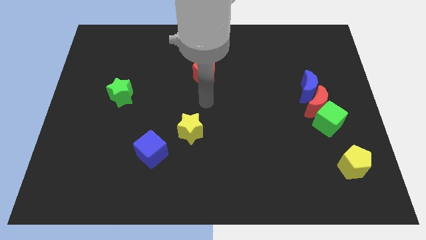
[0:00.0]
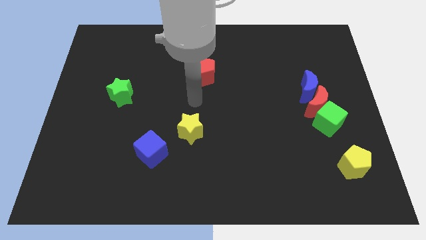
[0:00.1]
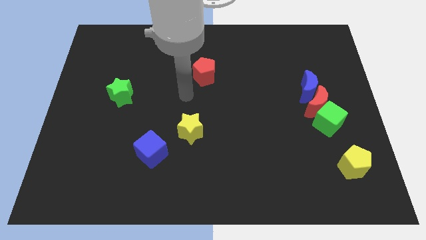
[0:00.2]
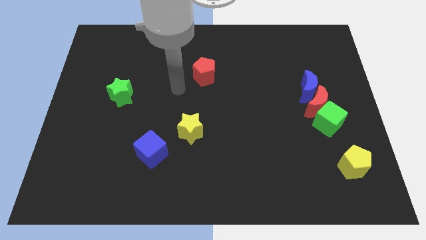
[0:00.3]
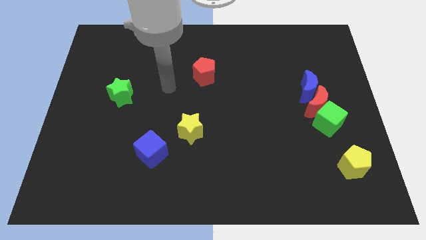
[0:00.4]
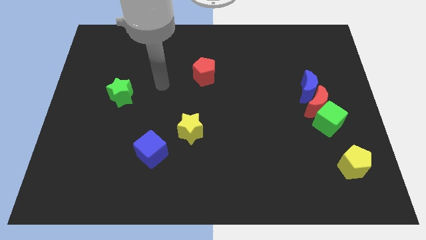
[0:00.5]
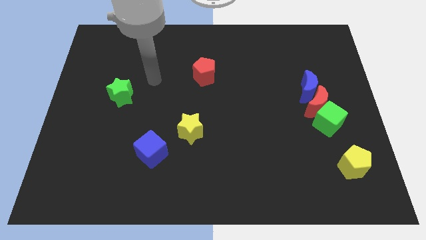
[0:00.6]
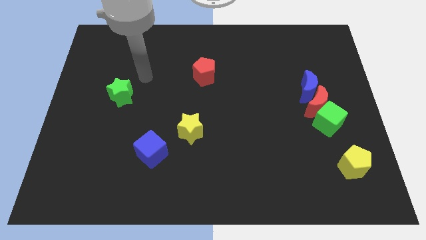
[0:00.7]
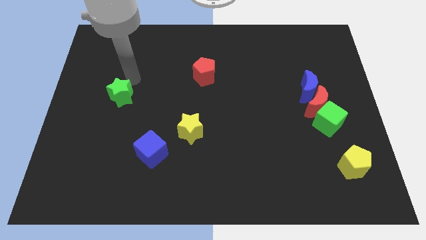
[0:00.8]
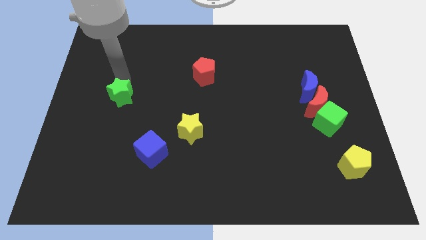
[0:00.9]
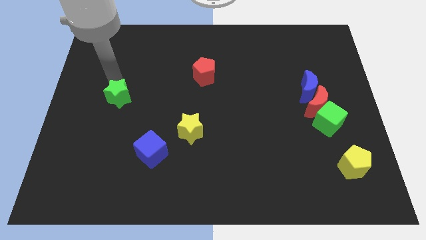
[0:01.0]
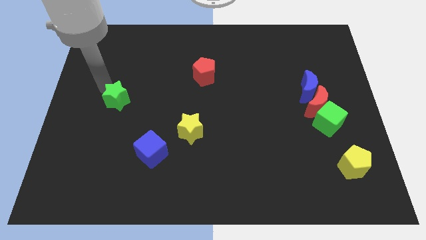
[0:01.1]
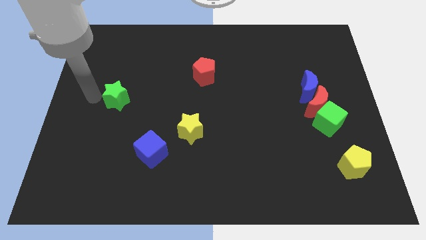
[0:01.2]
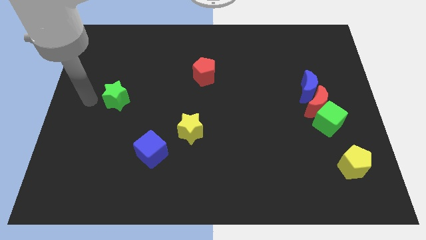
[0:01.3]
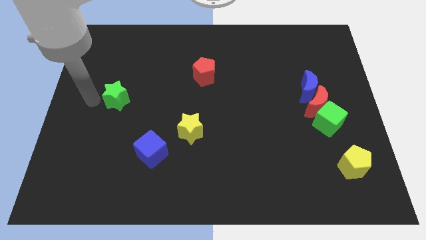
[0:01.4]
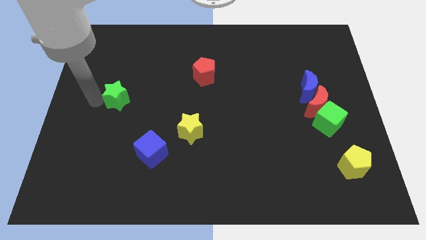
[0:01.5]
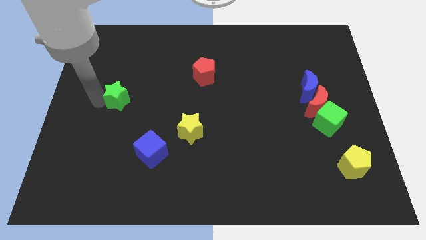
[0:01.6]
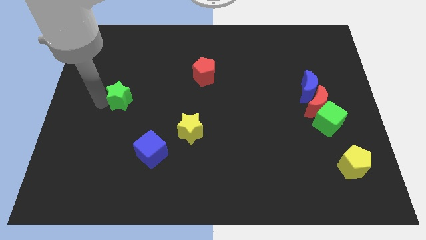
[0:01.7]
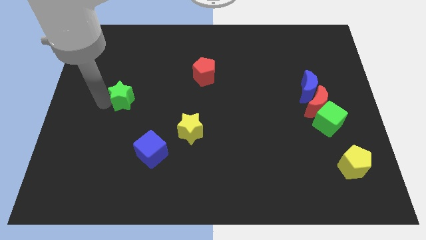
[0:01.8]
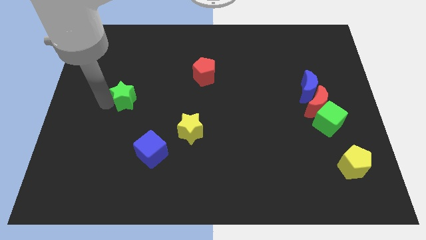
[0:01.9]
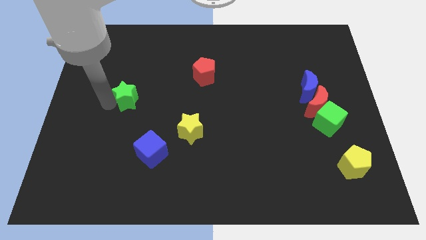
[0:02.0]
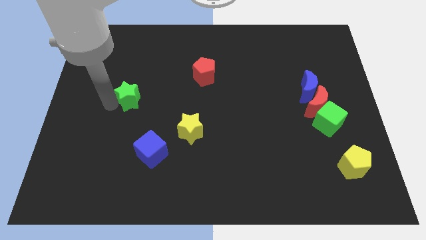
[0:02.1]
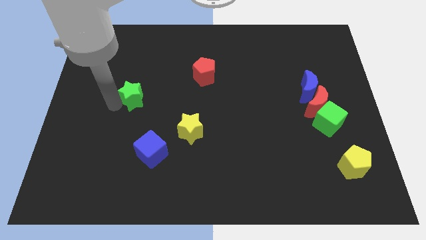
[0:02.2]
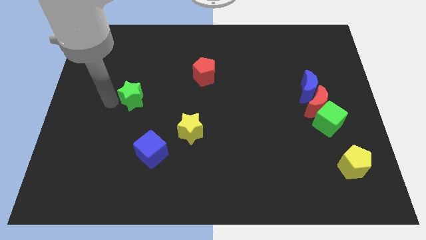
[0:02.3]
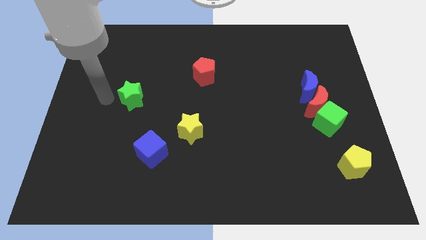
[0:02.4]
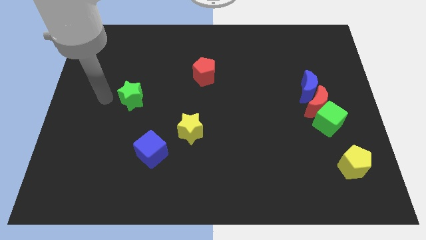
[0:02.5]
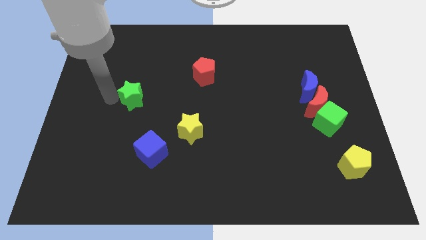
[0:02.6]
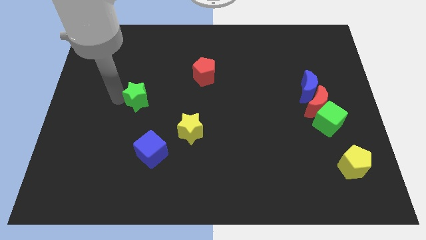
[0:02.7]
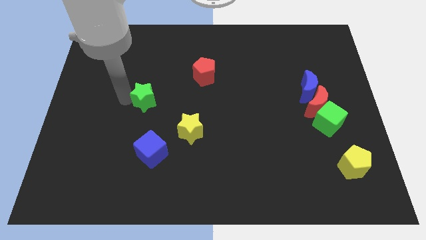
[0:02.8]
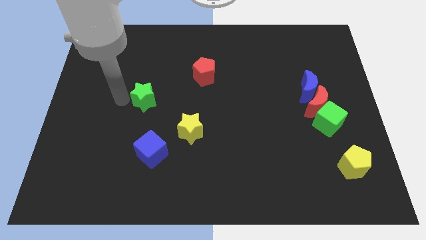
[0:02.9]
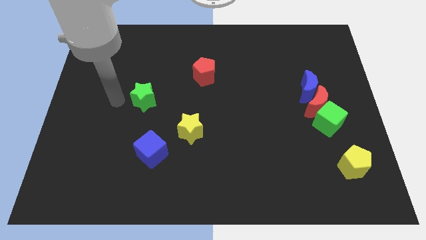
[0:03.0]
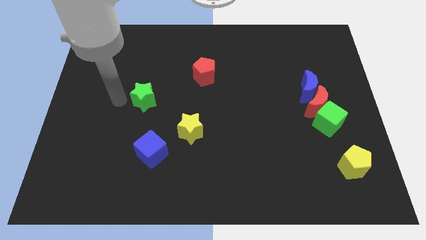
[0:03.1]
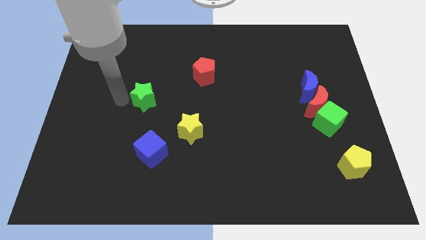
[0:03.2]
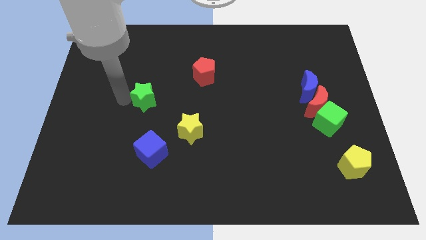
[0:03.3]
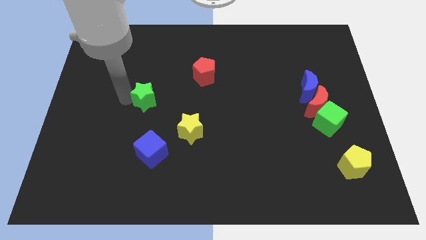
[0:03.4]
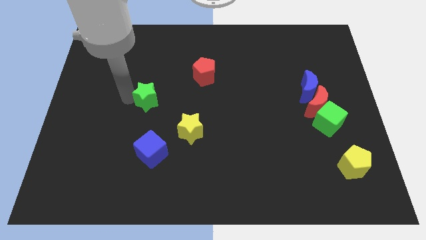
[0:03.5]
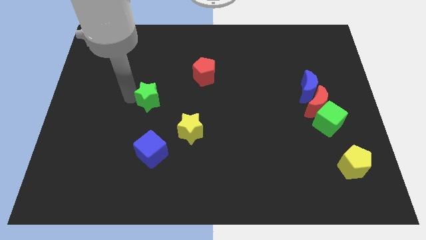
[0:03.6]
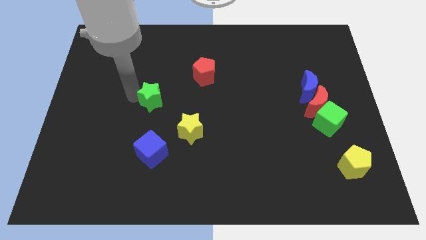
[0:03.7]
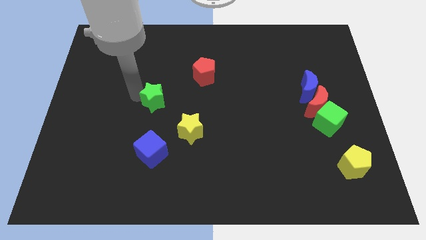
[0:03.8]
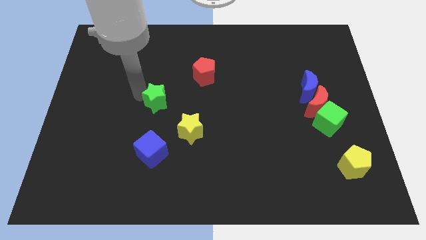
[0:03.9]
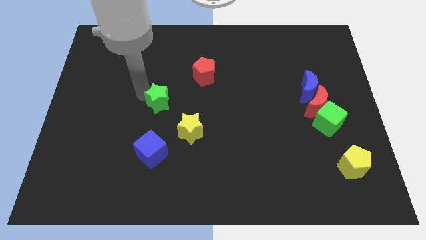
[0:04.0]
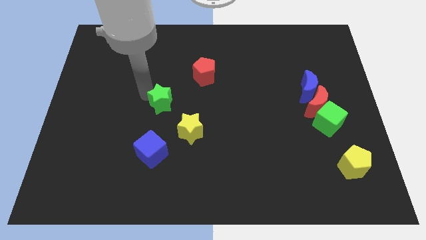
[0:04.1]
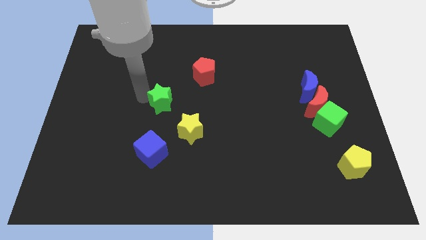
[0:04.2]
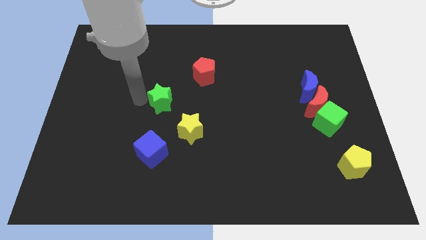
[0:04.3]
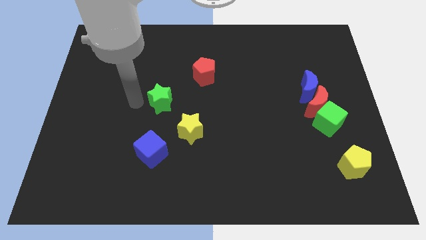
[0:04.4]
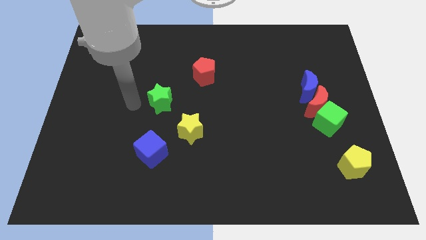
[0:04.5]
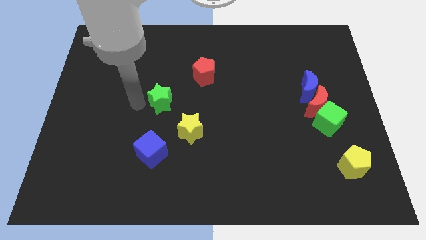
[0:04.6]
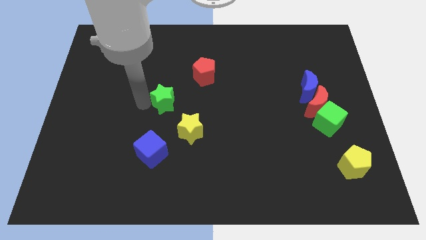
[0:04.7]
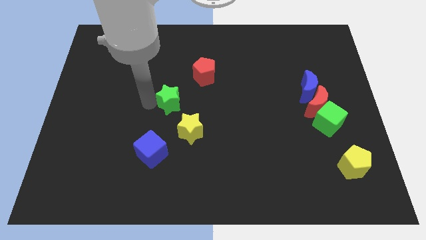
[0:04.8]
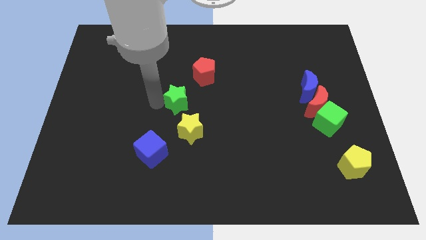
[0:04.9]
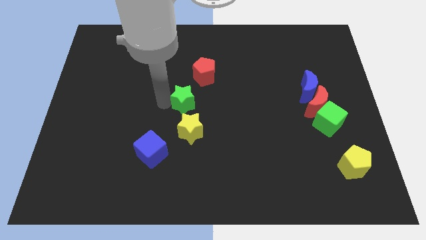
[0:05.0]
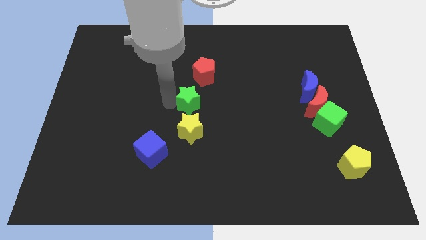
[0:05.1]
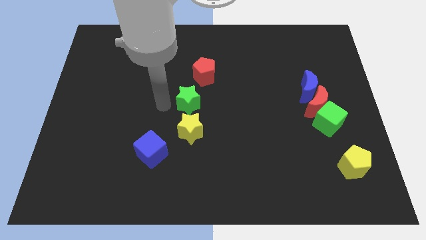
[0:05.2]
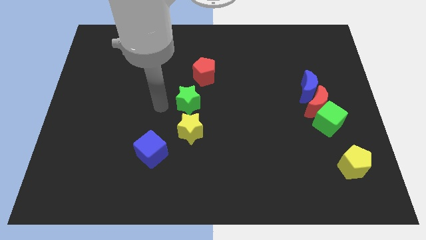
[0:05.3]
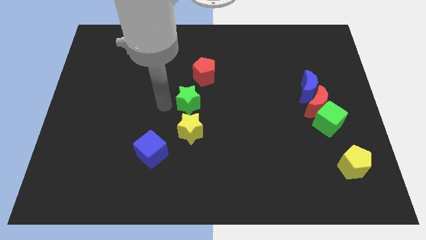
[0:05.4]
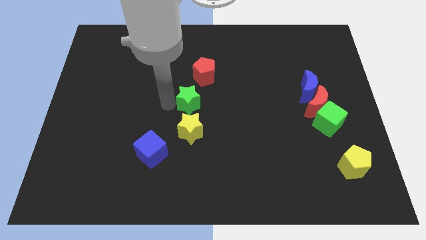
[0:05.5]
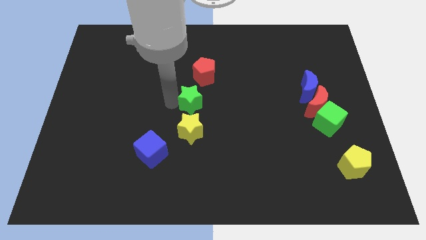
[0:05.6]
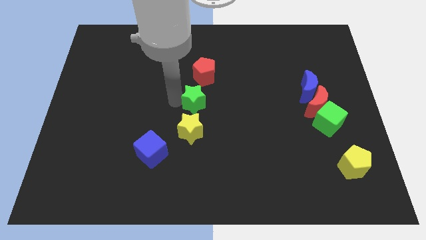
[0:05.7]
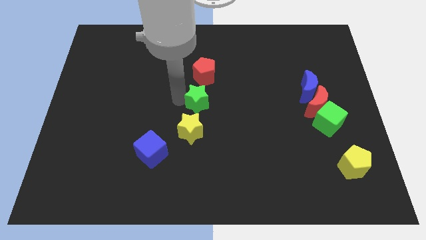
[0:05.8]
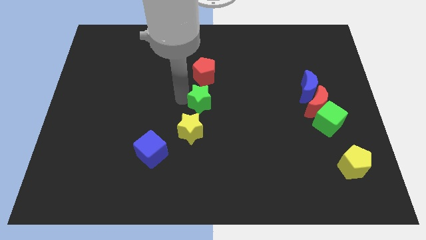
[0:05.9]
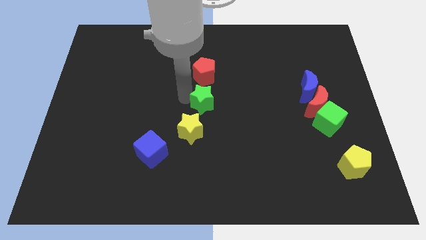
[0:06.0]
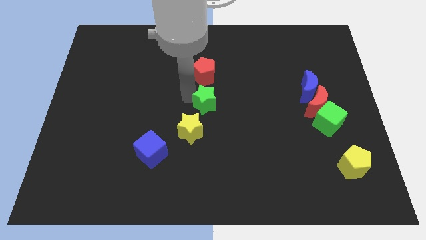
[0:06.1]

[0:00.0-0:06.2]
move the green star to the right

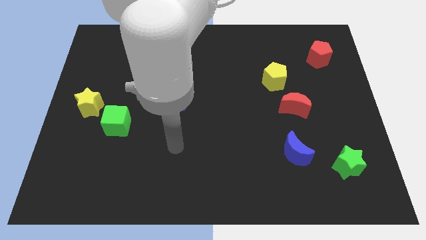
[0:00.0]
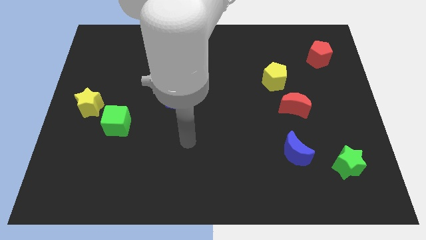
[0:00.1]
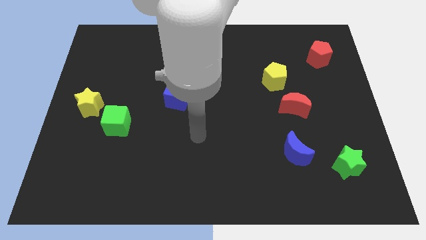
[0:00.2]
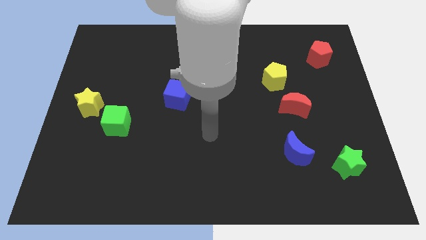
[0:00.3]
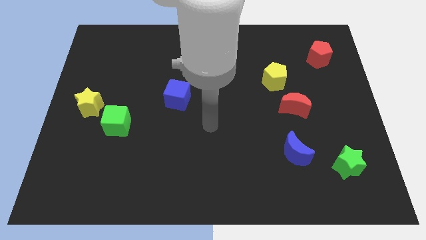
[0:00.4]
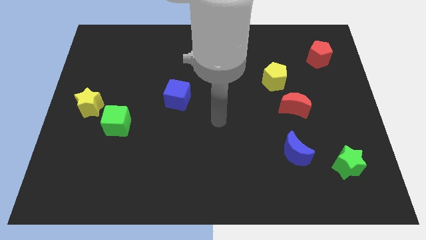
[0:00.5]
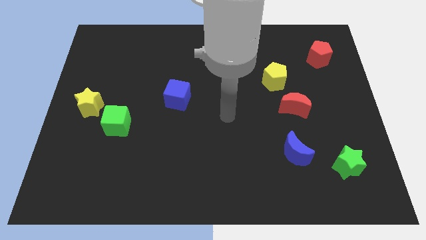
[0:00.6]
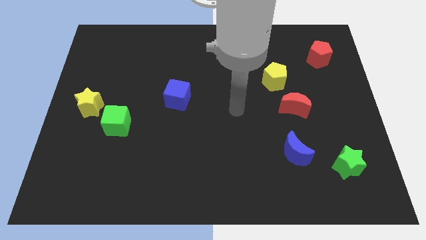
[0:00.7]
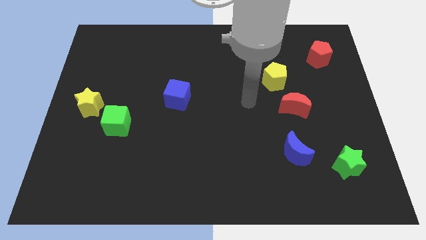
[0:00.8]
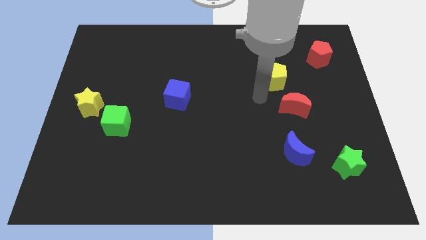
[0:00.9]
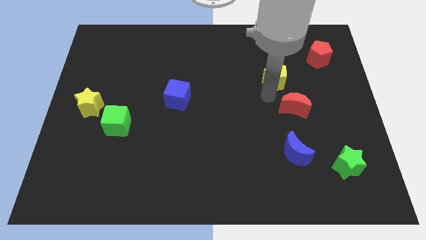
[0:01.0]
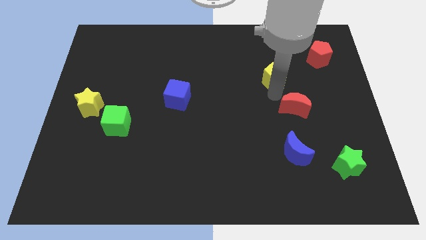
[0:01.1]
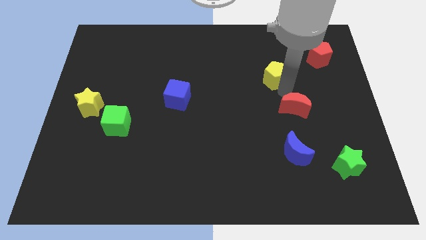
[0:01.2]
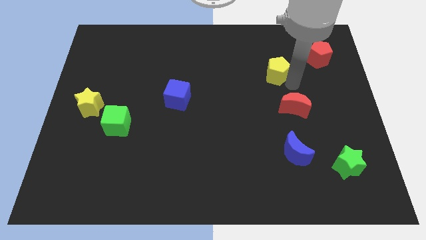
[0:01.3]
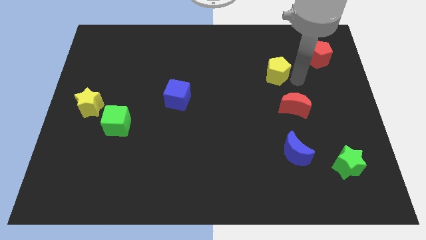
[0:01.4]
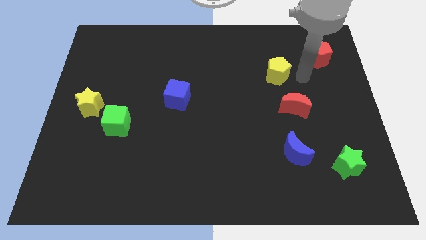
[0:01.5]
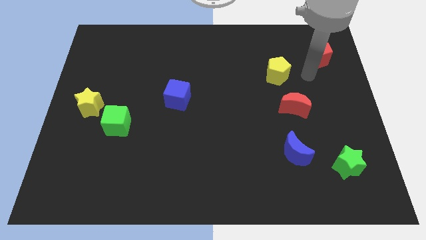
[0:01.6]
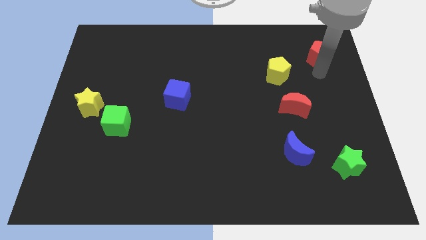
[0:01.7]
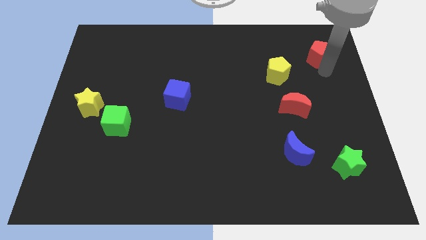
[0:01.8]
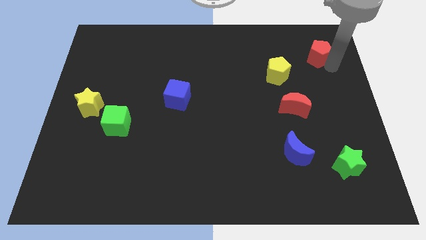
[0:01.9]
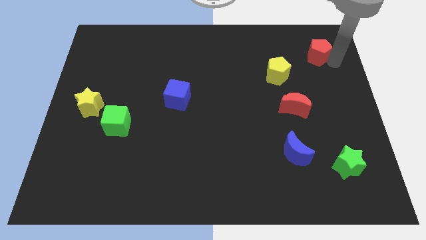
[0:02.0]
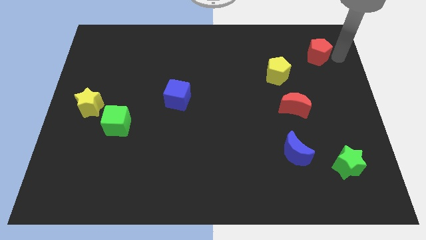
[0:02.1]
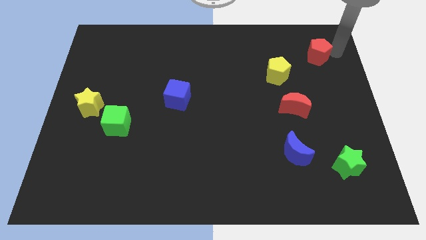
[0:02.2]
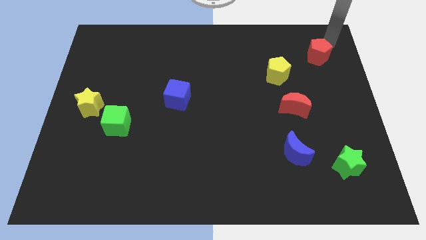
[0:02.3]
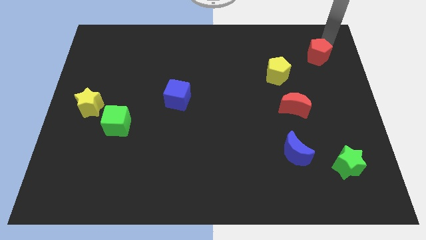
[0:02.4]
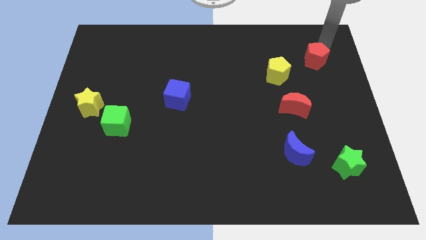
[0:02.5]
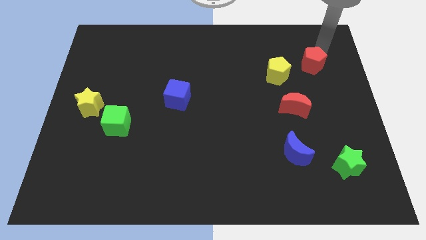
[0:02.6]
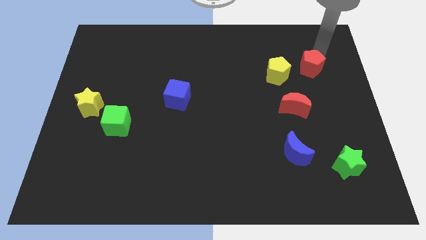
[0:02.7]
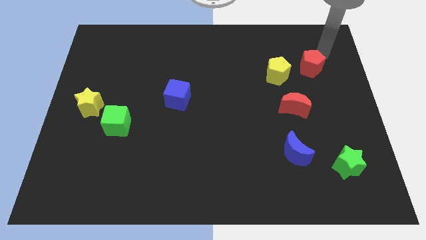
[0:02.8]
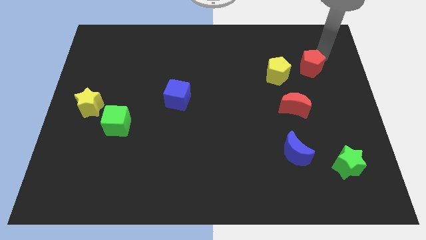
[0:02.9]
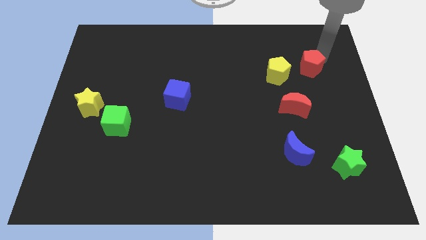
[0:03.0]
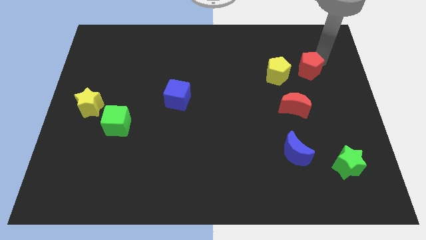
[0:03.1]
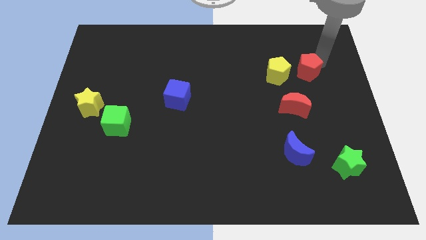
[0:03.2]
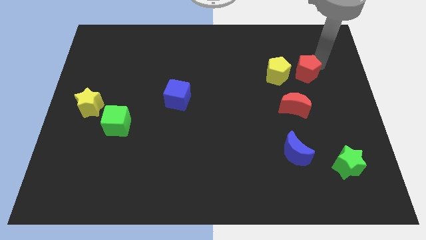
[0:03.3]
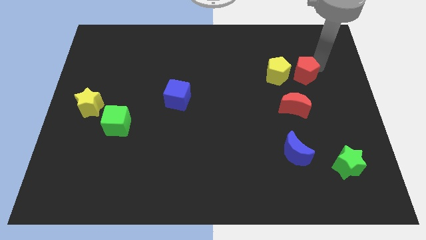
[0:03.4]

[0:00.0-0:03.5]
move the red pentagon a little down and to the left
